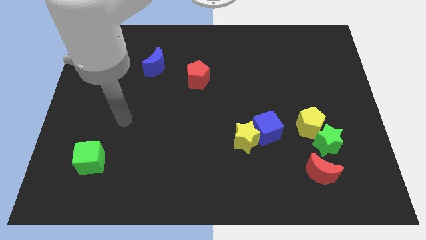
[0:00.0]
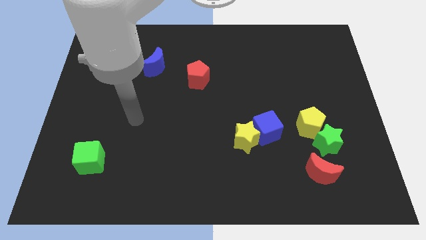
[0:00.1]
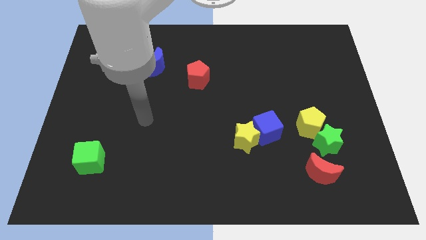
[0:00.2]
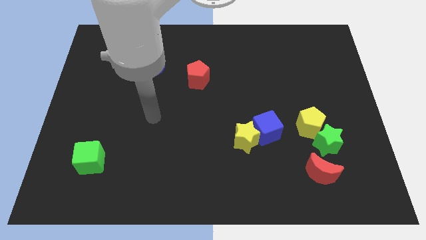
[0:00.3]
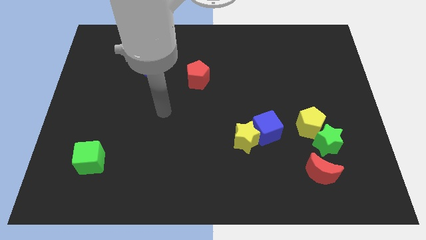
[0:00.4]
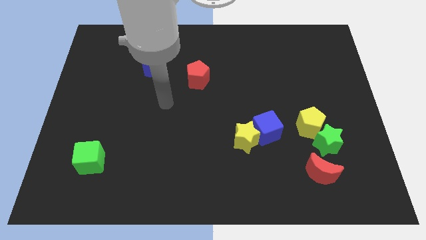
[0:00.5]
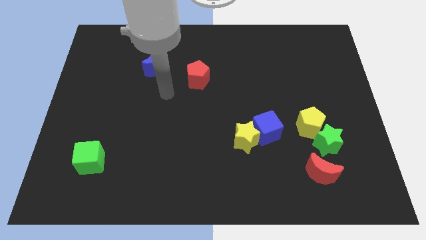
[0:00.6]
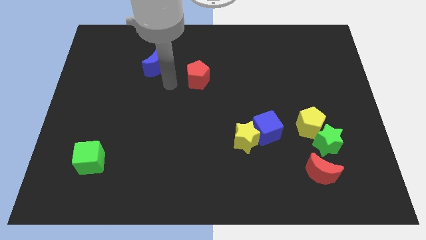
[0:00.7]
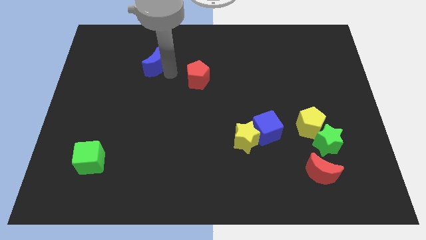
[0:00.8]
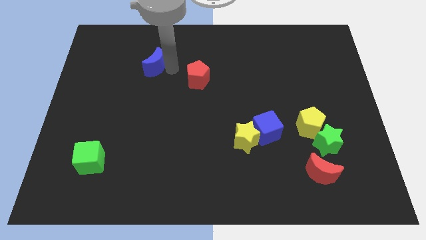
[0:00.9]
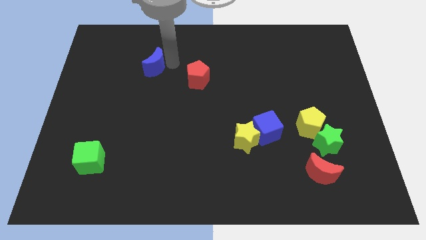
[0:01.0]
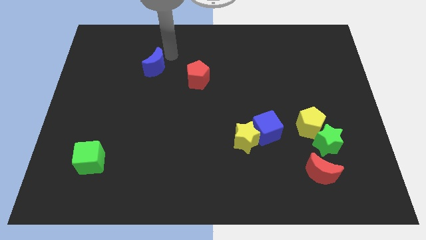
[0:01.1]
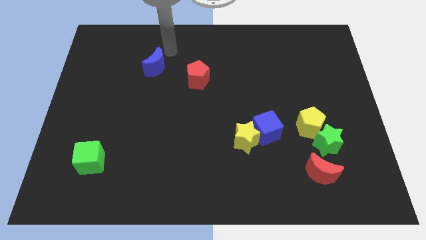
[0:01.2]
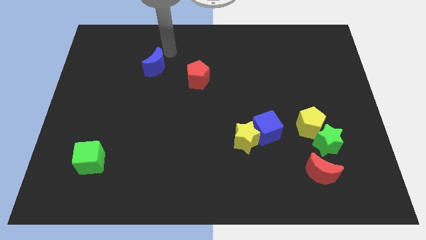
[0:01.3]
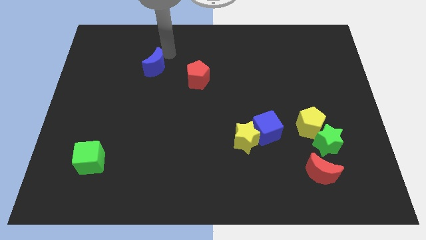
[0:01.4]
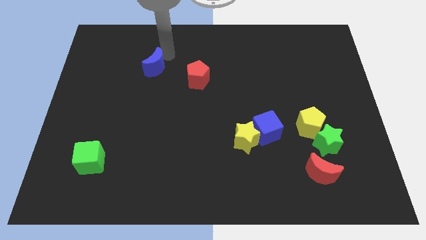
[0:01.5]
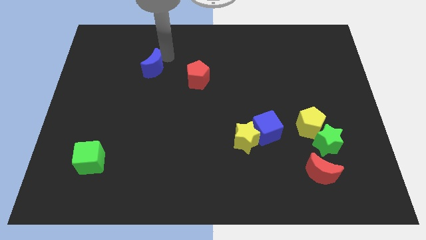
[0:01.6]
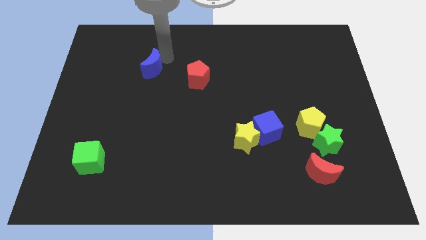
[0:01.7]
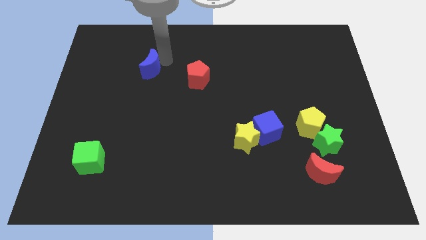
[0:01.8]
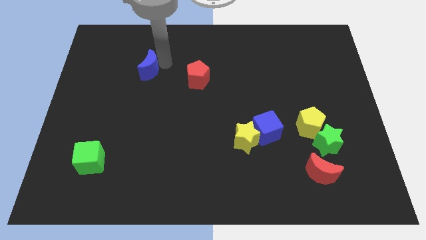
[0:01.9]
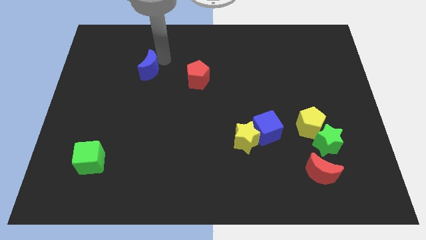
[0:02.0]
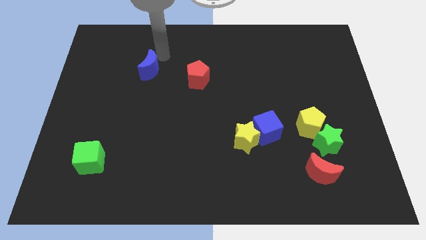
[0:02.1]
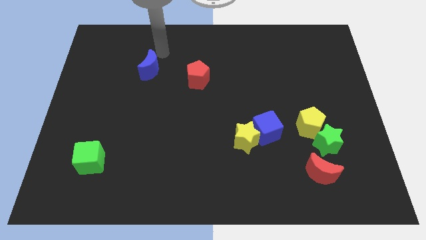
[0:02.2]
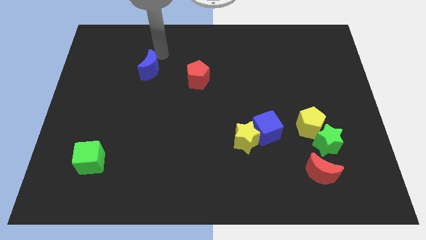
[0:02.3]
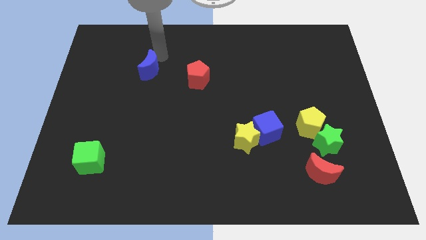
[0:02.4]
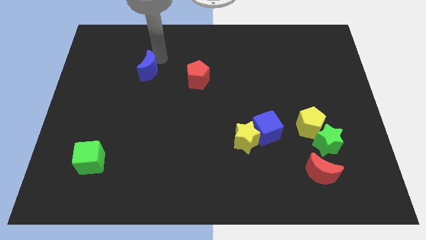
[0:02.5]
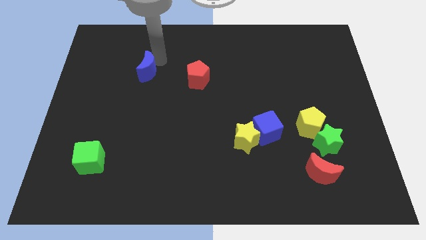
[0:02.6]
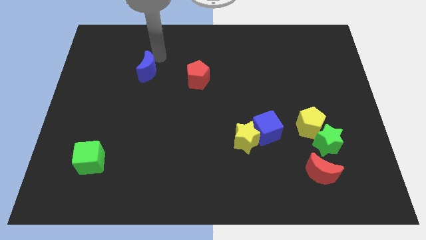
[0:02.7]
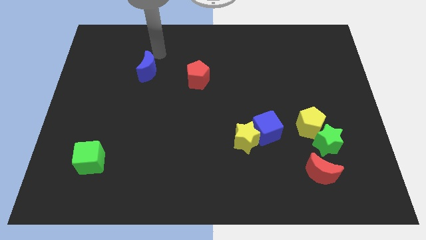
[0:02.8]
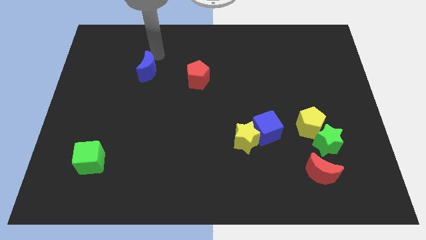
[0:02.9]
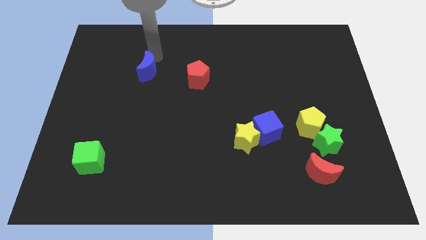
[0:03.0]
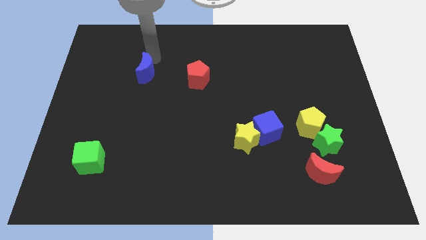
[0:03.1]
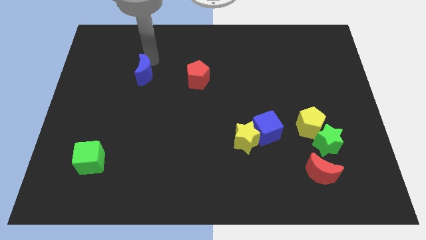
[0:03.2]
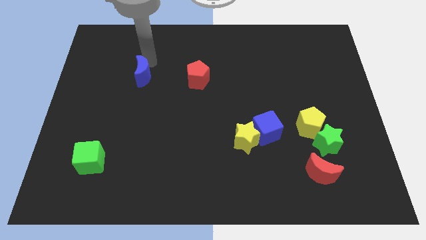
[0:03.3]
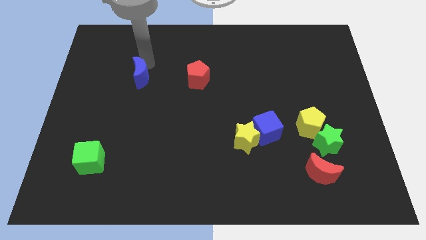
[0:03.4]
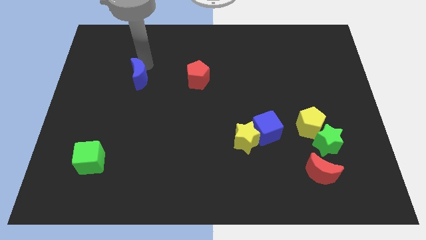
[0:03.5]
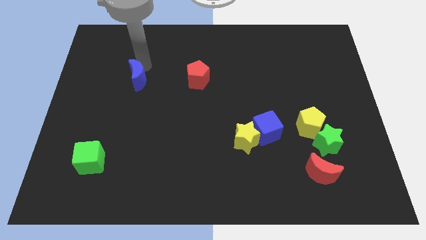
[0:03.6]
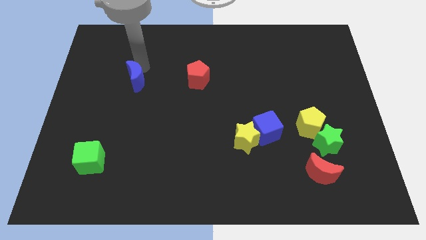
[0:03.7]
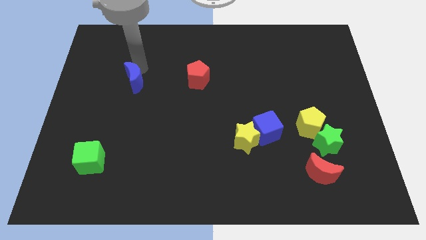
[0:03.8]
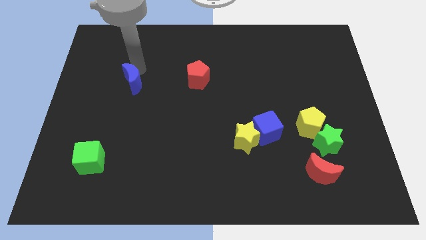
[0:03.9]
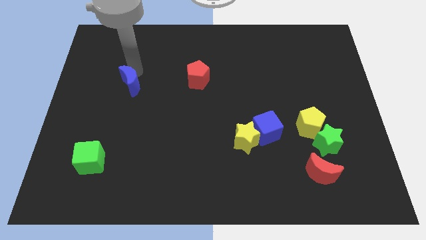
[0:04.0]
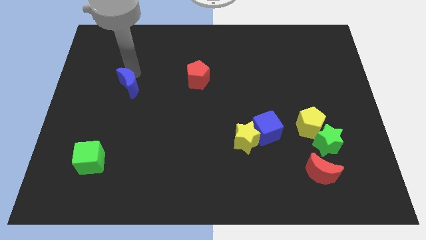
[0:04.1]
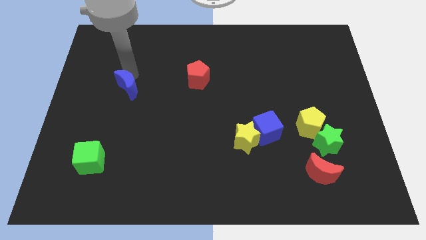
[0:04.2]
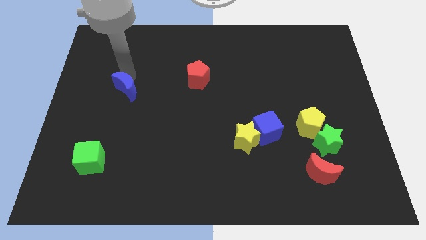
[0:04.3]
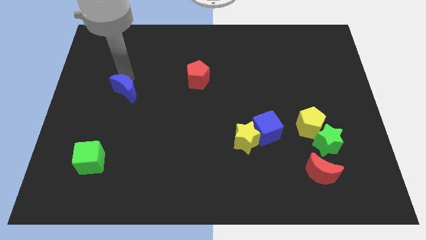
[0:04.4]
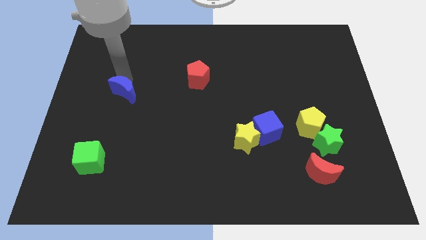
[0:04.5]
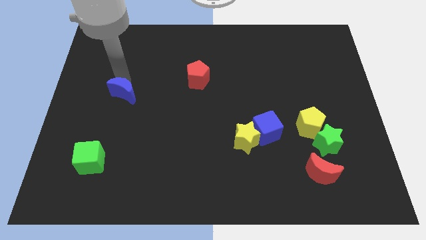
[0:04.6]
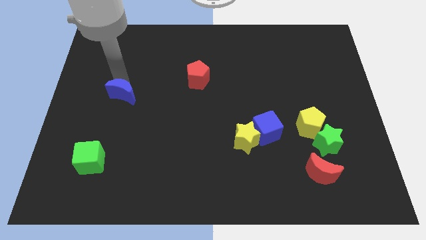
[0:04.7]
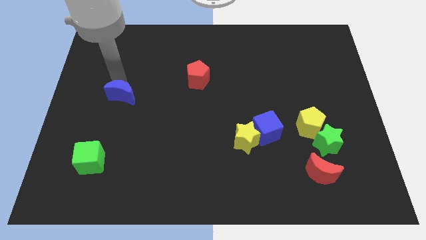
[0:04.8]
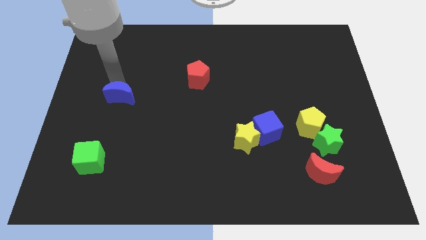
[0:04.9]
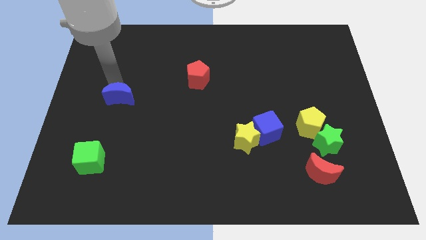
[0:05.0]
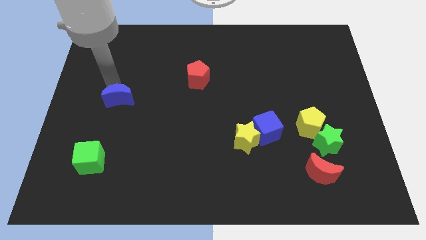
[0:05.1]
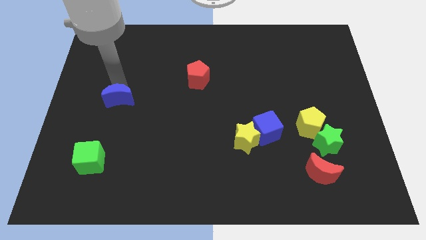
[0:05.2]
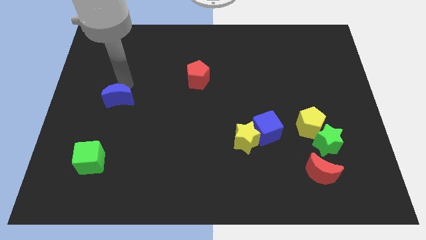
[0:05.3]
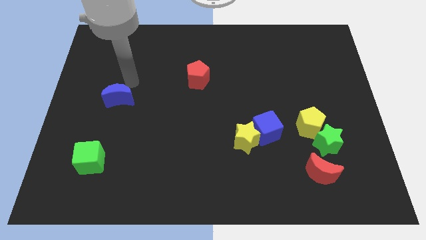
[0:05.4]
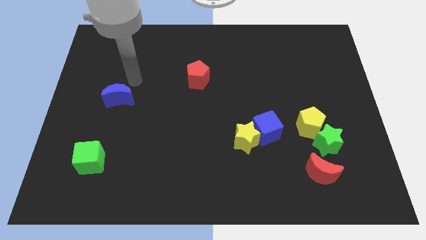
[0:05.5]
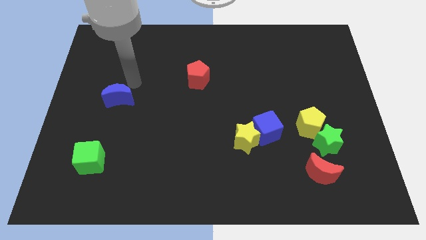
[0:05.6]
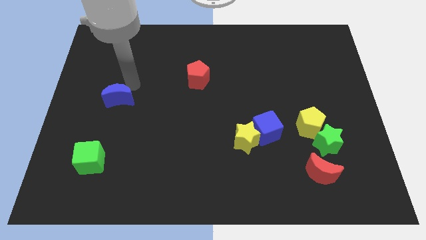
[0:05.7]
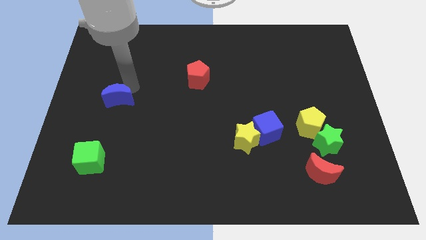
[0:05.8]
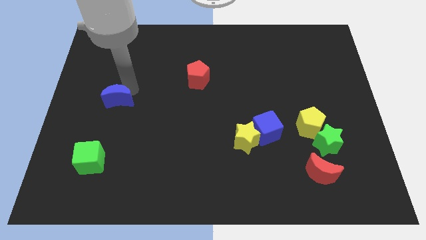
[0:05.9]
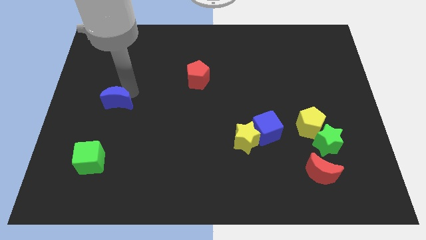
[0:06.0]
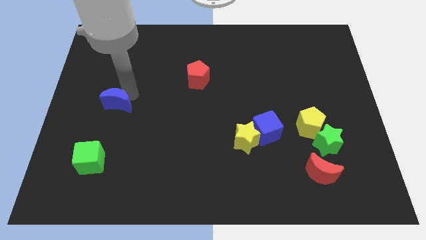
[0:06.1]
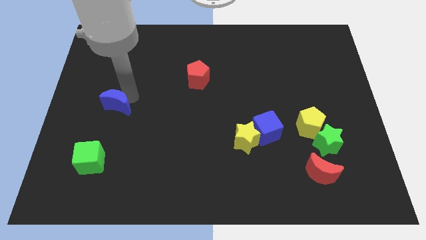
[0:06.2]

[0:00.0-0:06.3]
slide the blue moon to the top side of the green cube

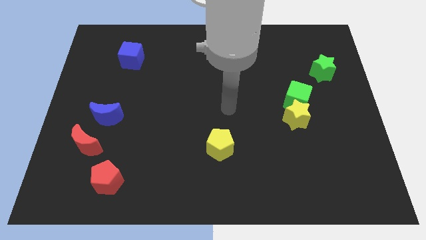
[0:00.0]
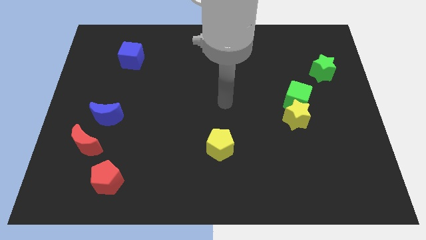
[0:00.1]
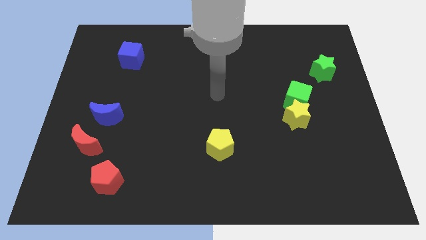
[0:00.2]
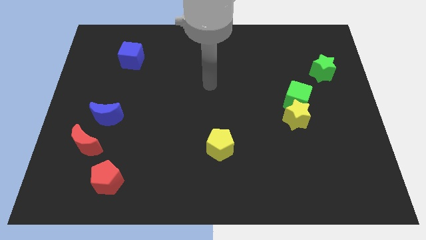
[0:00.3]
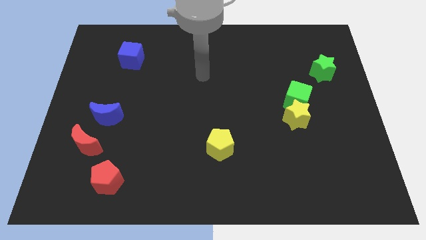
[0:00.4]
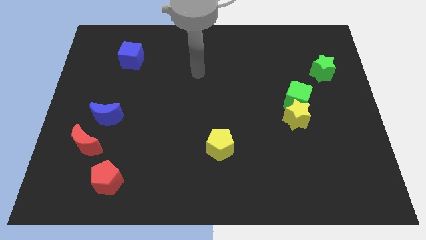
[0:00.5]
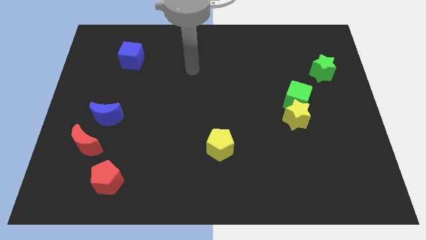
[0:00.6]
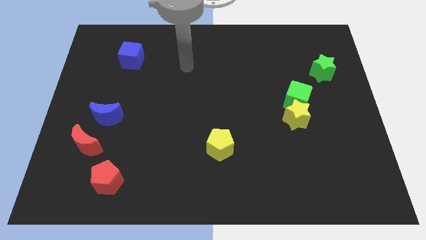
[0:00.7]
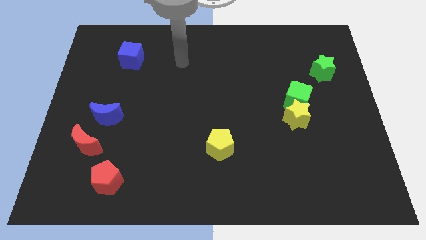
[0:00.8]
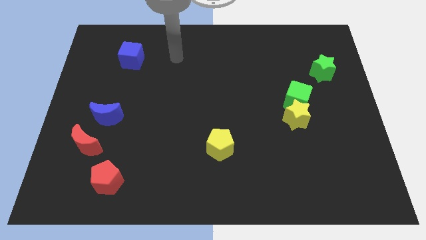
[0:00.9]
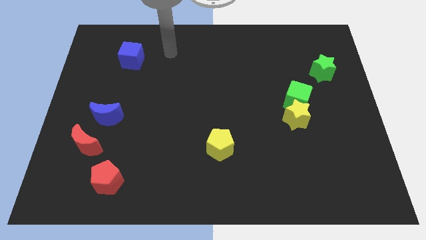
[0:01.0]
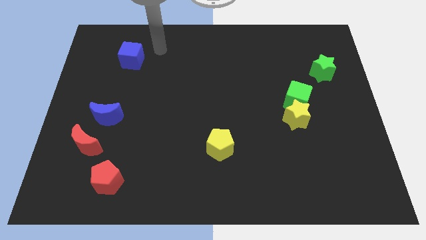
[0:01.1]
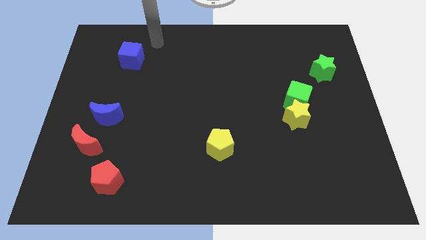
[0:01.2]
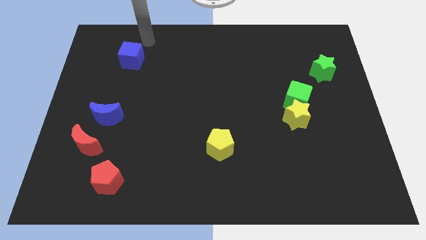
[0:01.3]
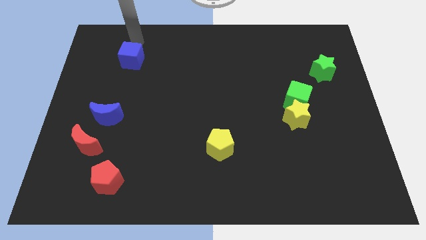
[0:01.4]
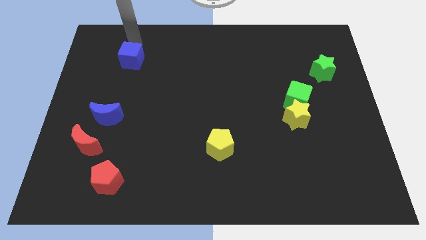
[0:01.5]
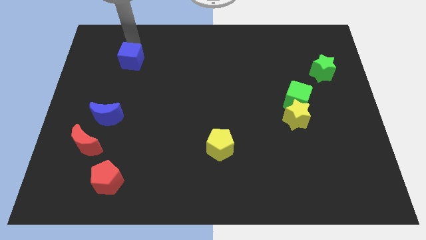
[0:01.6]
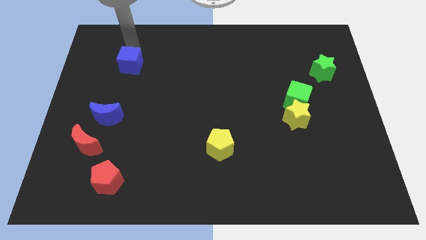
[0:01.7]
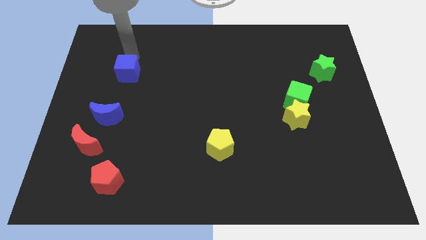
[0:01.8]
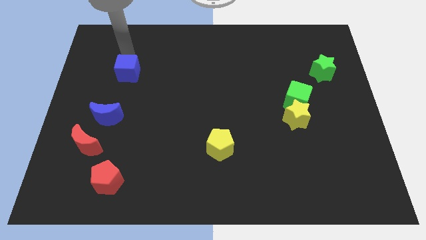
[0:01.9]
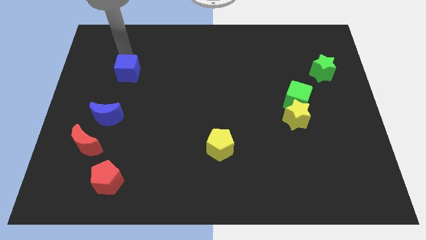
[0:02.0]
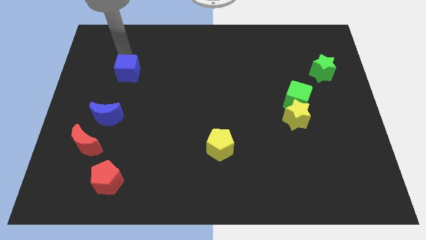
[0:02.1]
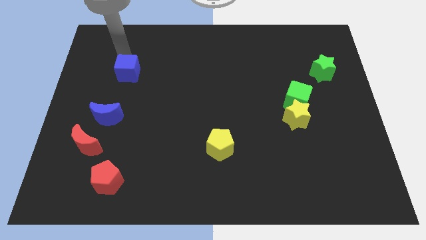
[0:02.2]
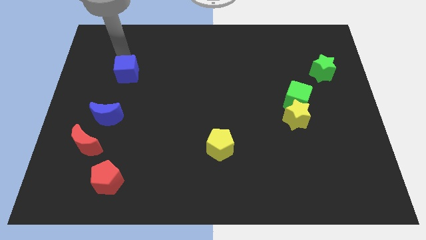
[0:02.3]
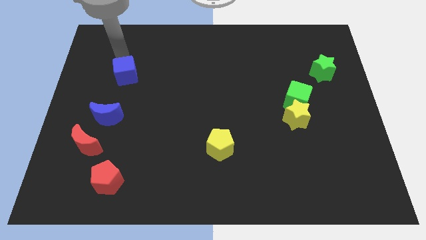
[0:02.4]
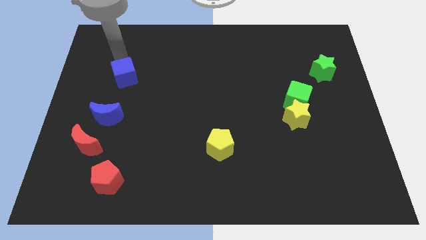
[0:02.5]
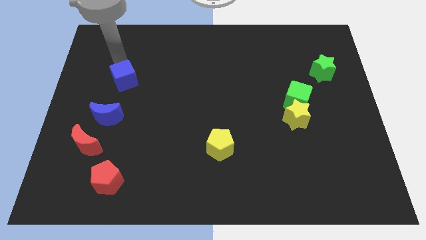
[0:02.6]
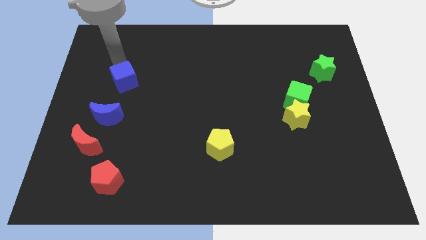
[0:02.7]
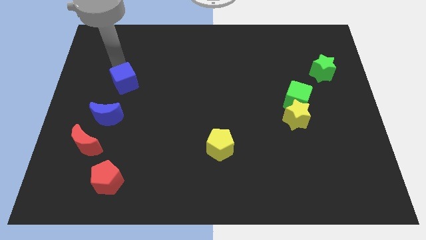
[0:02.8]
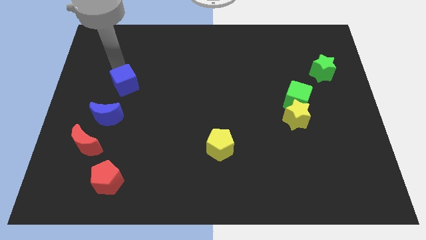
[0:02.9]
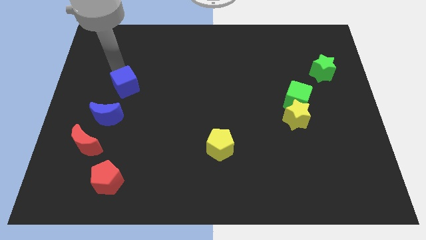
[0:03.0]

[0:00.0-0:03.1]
push the blue cube to the top right of the blue moon
